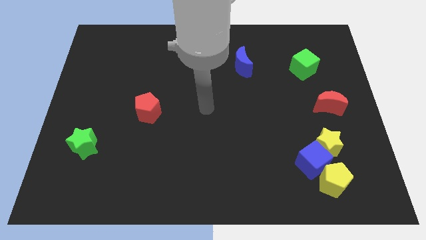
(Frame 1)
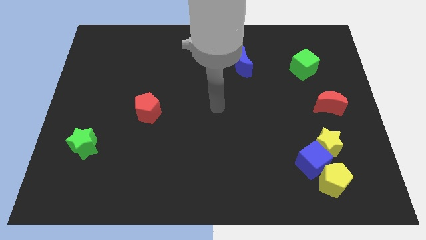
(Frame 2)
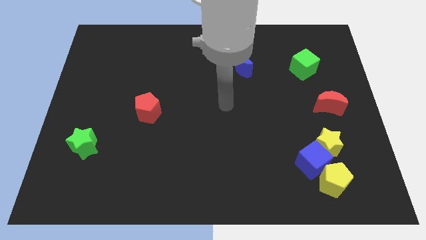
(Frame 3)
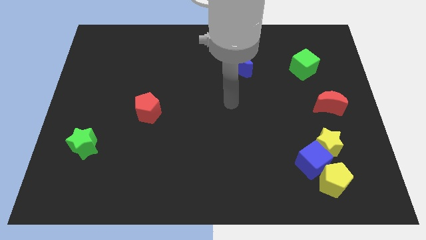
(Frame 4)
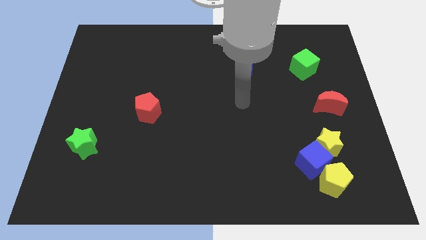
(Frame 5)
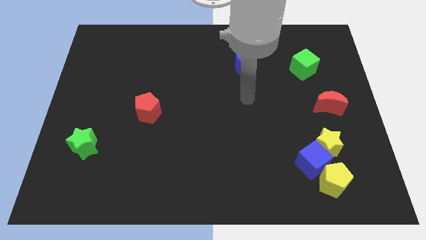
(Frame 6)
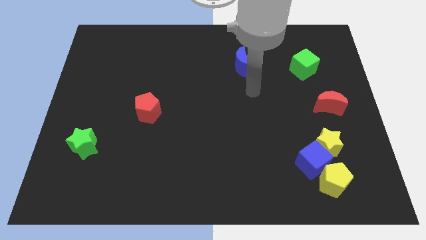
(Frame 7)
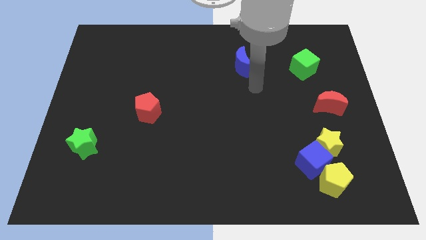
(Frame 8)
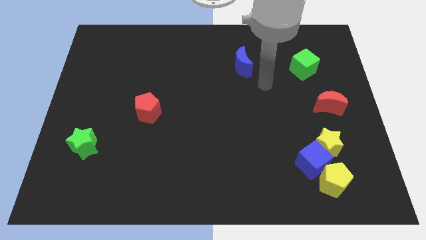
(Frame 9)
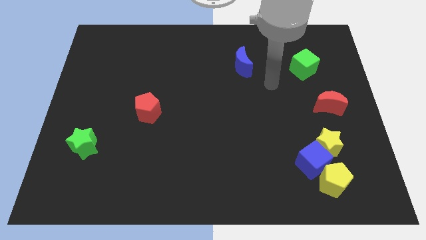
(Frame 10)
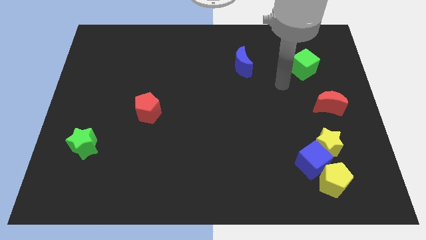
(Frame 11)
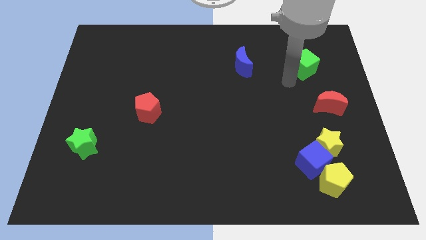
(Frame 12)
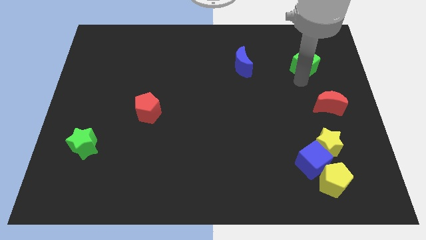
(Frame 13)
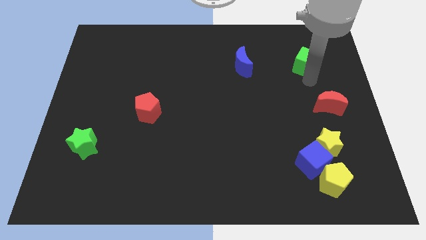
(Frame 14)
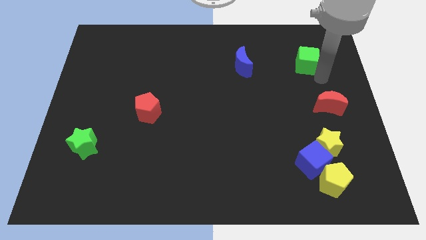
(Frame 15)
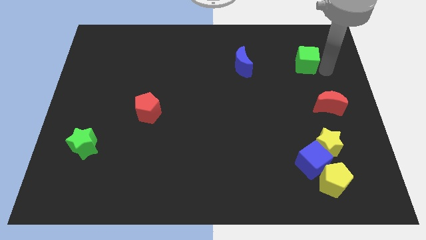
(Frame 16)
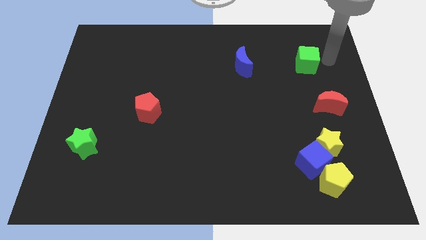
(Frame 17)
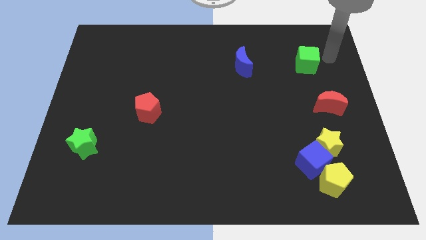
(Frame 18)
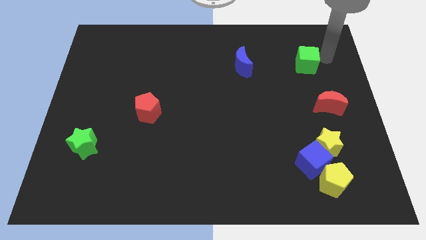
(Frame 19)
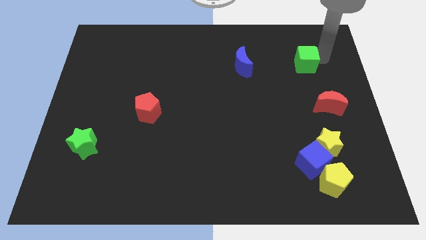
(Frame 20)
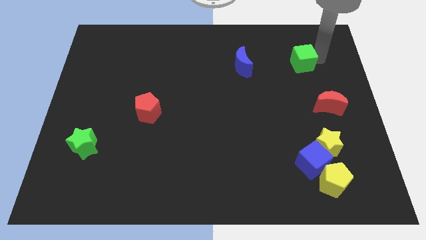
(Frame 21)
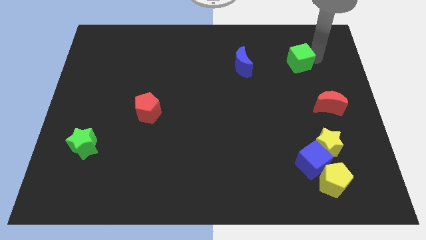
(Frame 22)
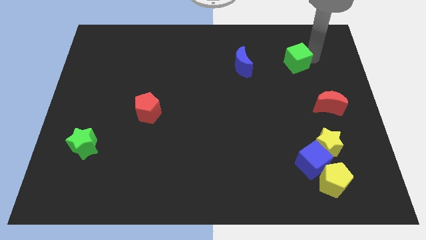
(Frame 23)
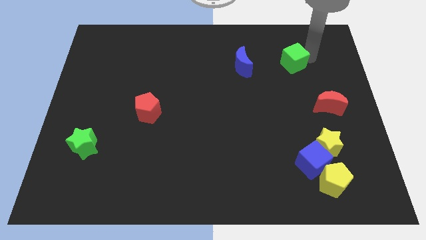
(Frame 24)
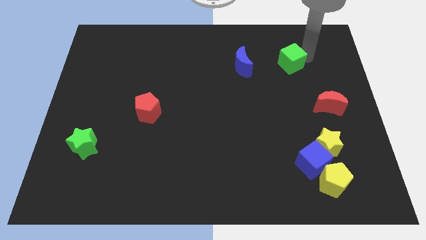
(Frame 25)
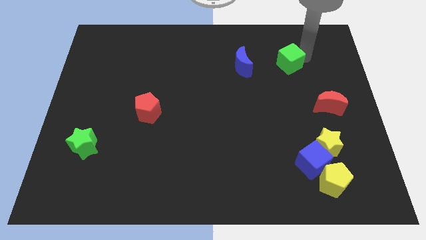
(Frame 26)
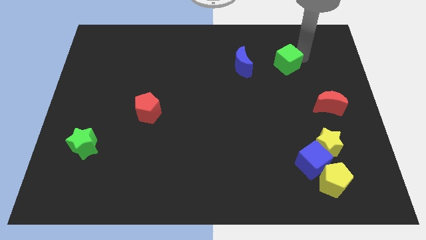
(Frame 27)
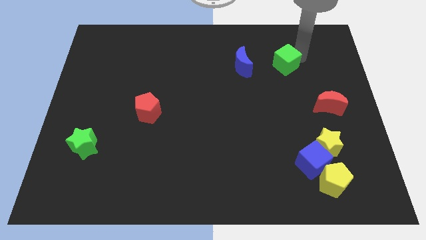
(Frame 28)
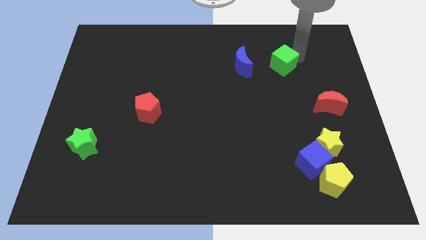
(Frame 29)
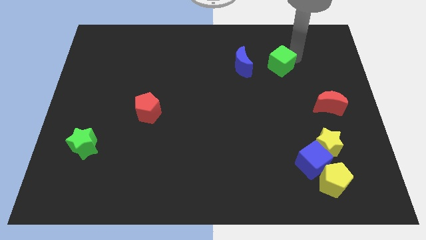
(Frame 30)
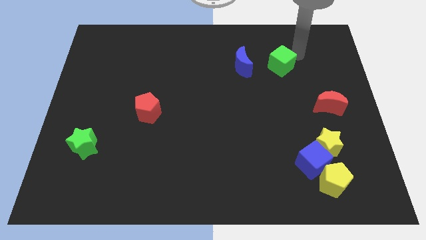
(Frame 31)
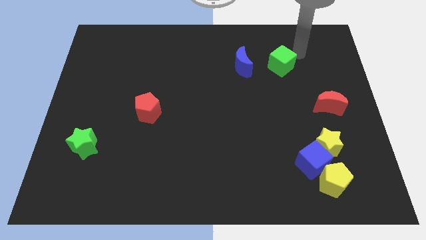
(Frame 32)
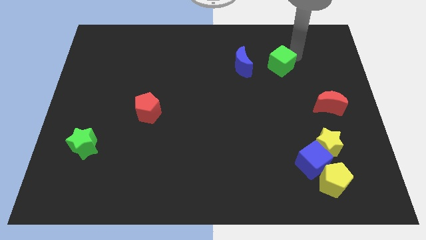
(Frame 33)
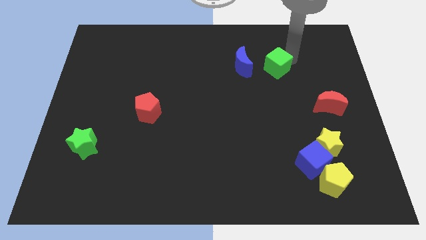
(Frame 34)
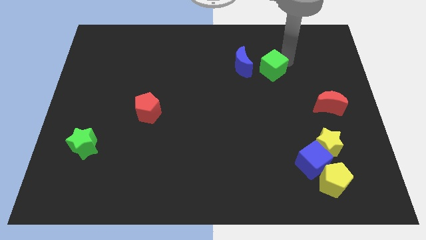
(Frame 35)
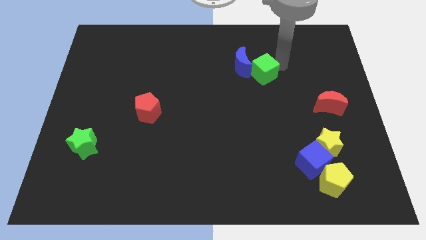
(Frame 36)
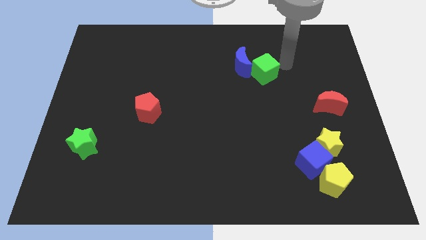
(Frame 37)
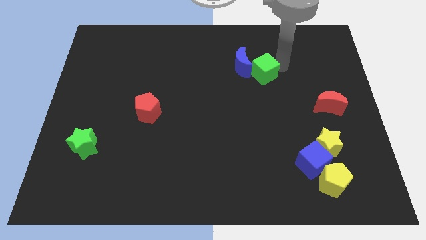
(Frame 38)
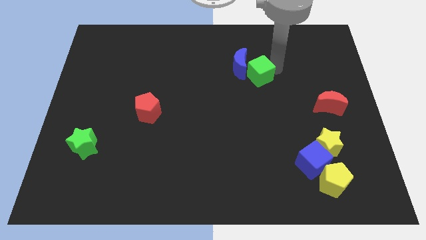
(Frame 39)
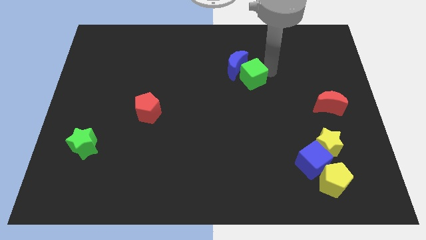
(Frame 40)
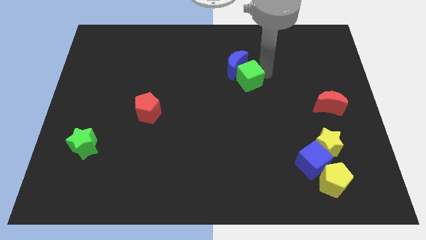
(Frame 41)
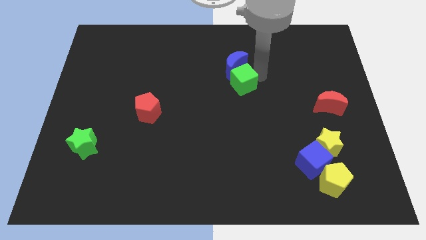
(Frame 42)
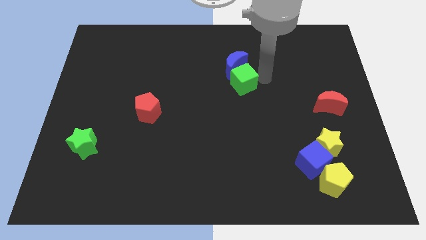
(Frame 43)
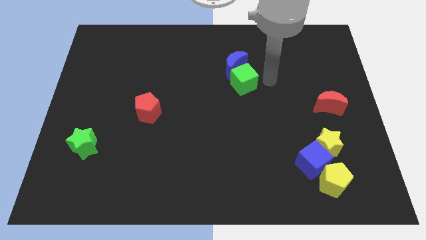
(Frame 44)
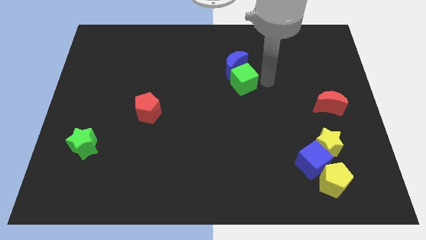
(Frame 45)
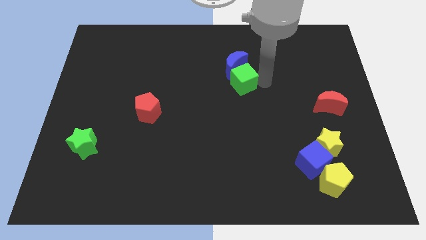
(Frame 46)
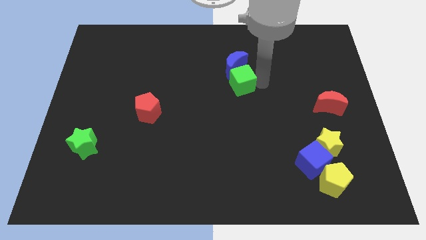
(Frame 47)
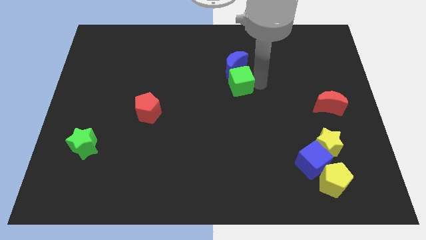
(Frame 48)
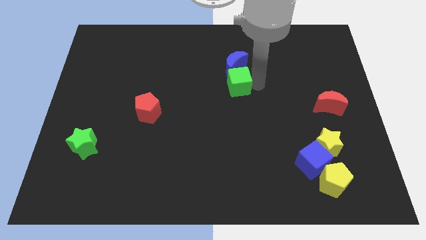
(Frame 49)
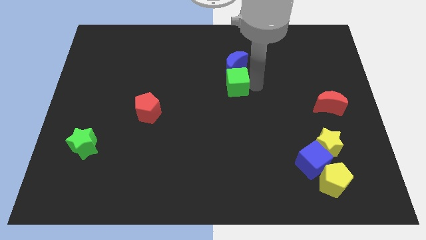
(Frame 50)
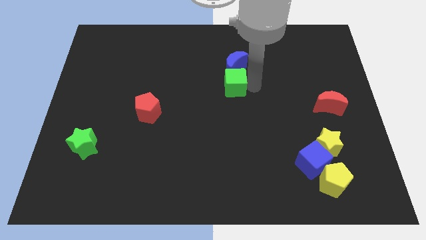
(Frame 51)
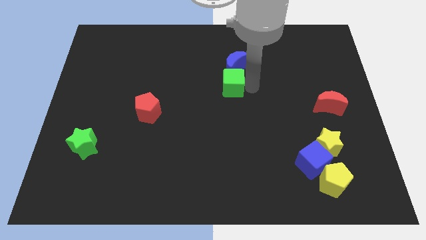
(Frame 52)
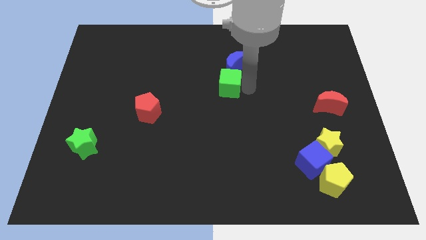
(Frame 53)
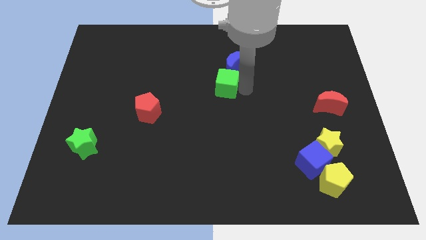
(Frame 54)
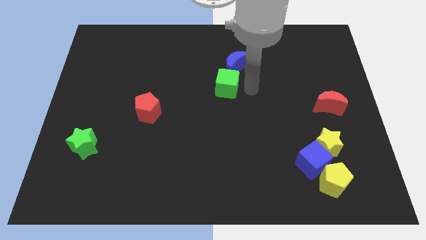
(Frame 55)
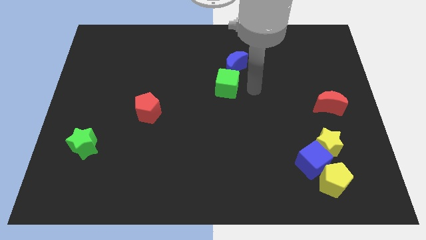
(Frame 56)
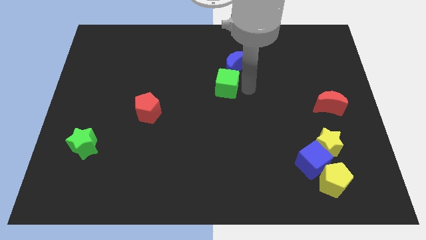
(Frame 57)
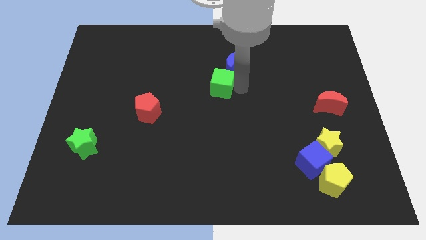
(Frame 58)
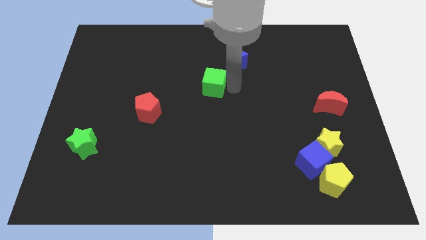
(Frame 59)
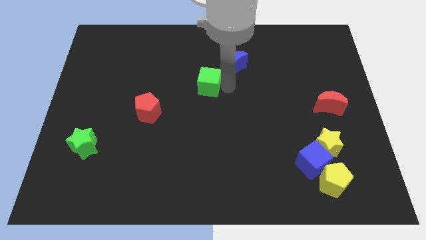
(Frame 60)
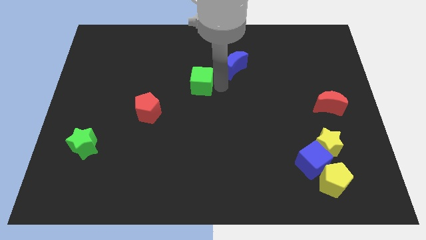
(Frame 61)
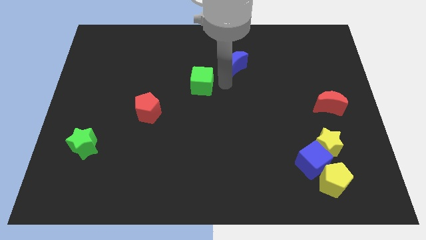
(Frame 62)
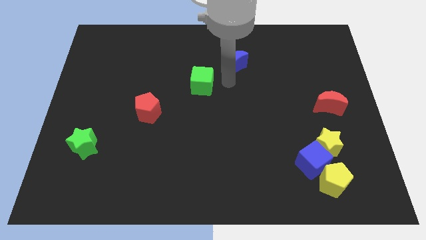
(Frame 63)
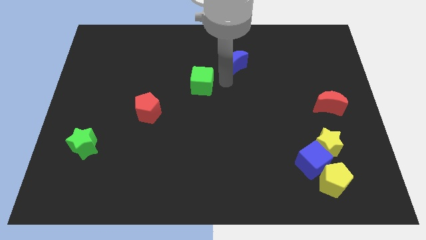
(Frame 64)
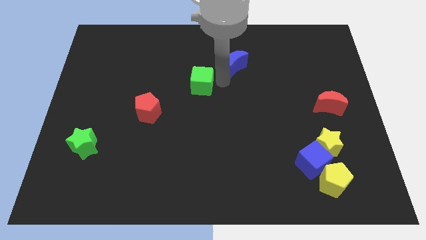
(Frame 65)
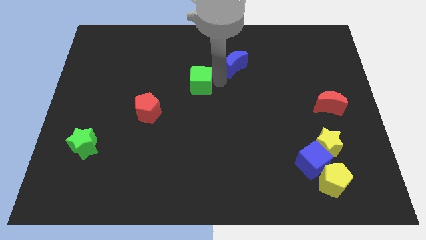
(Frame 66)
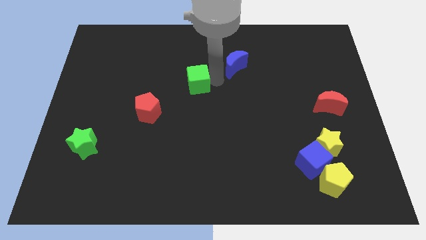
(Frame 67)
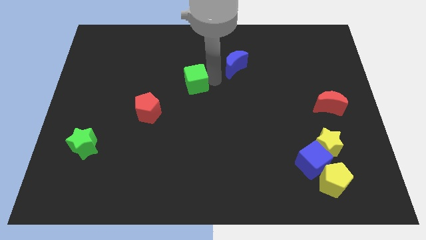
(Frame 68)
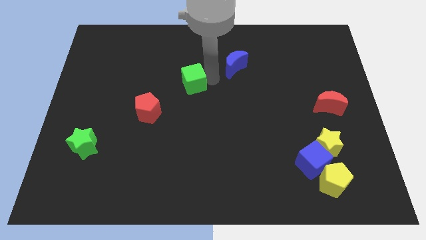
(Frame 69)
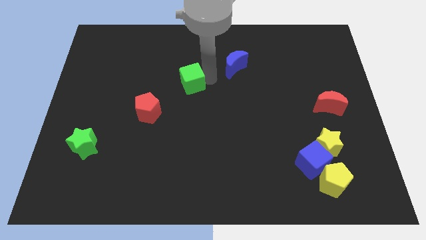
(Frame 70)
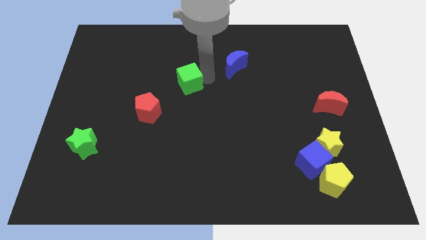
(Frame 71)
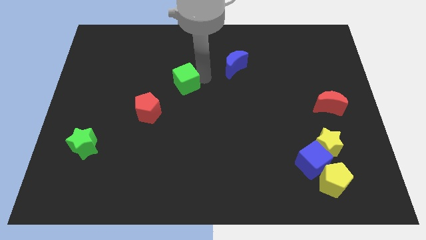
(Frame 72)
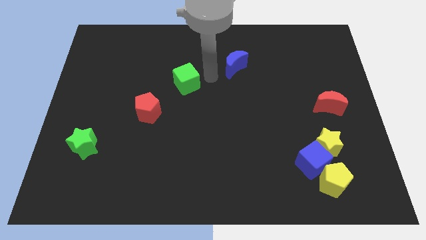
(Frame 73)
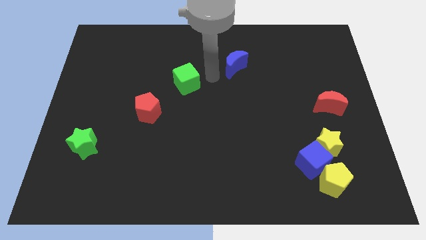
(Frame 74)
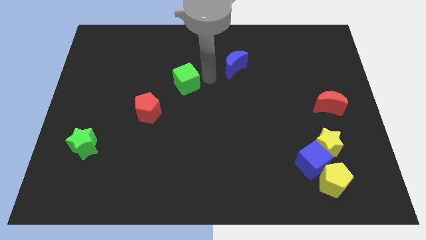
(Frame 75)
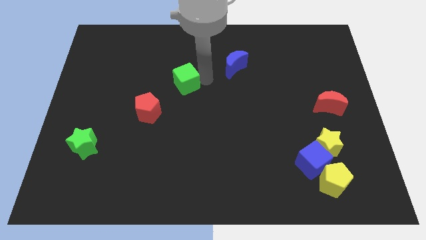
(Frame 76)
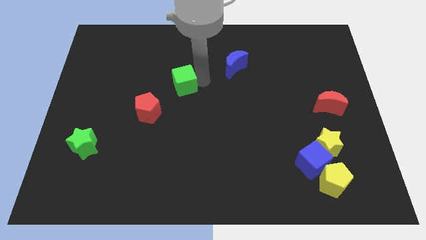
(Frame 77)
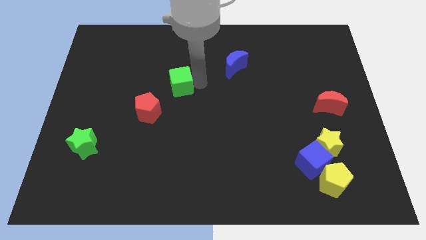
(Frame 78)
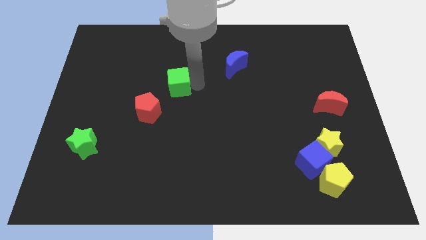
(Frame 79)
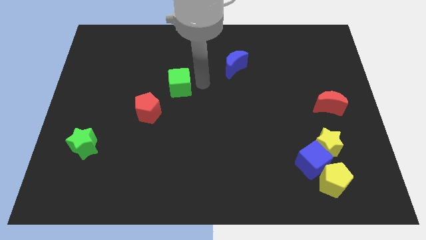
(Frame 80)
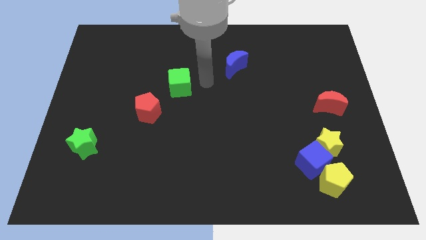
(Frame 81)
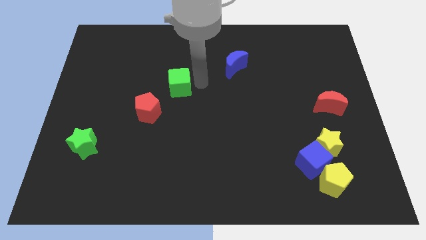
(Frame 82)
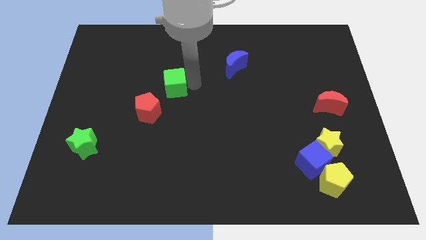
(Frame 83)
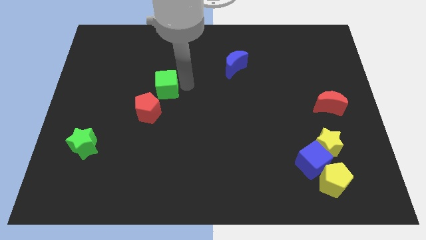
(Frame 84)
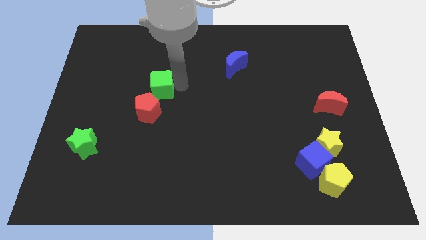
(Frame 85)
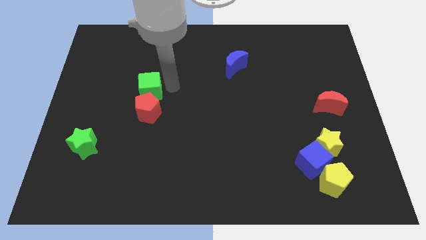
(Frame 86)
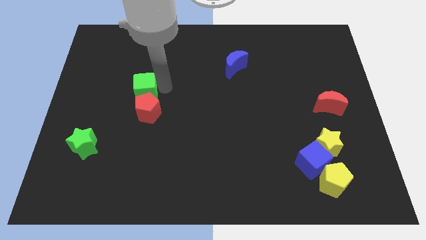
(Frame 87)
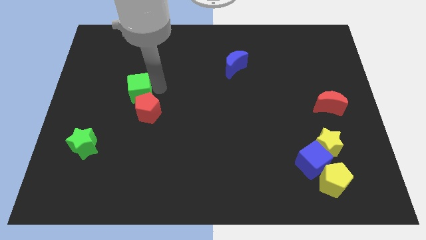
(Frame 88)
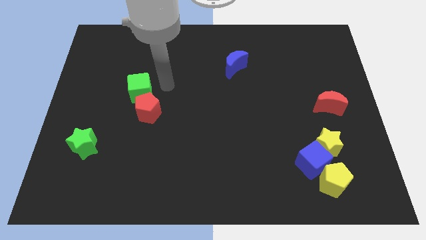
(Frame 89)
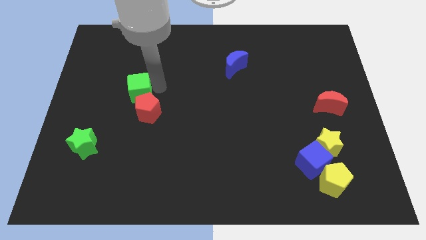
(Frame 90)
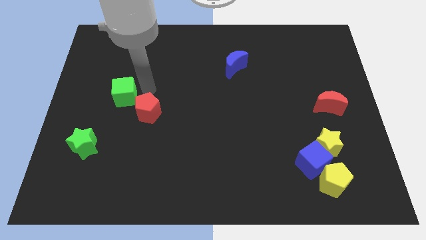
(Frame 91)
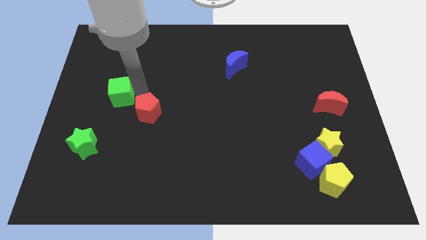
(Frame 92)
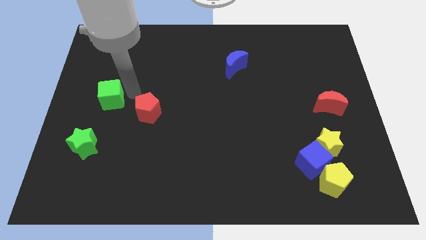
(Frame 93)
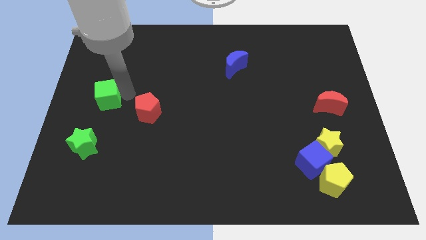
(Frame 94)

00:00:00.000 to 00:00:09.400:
push the green cube to the left side of the board
